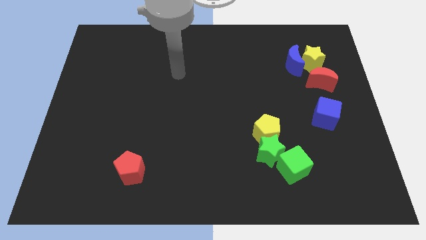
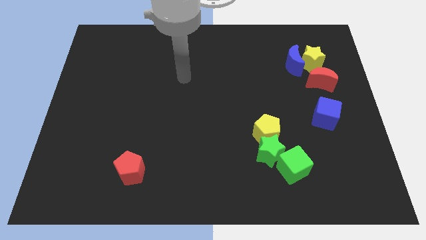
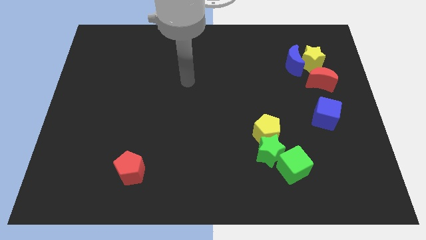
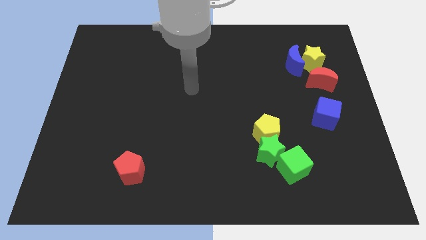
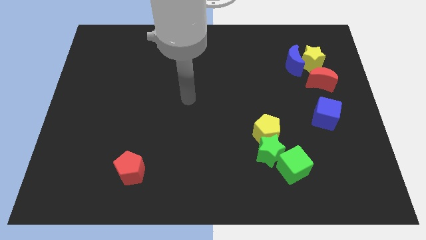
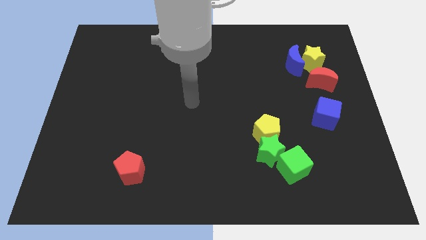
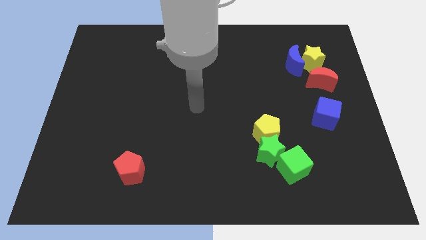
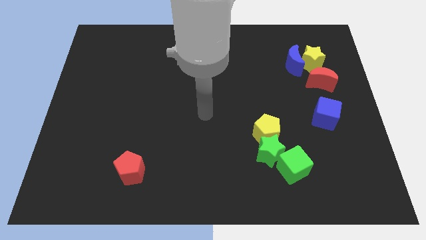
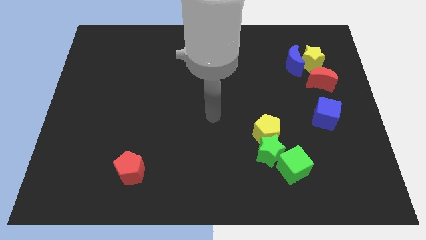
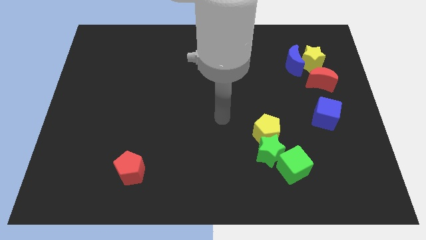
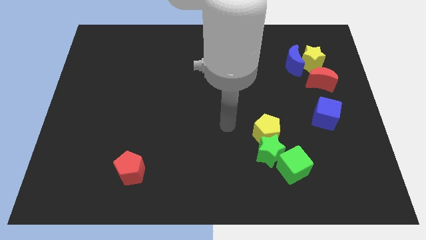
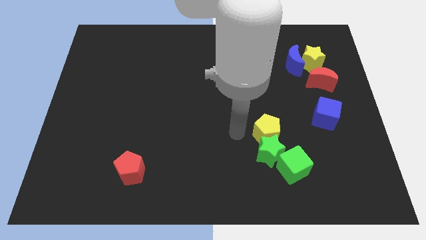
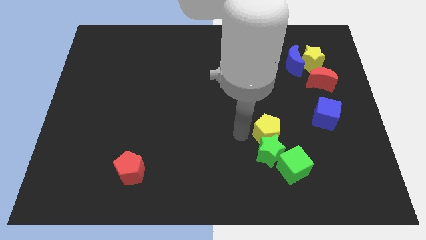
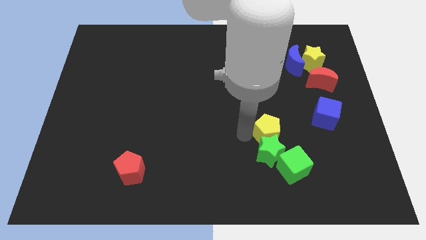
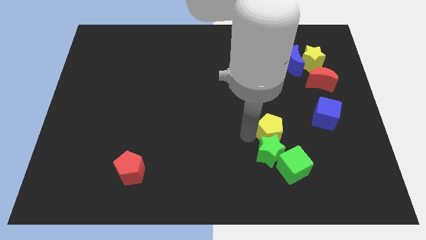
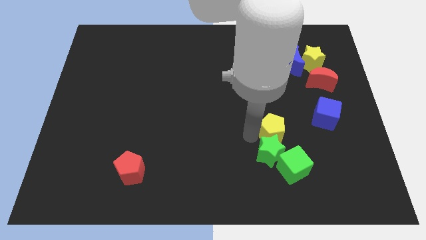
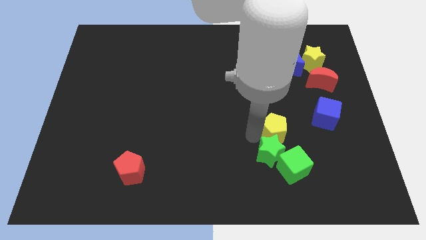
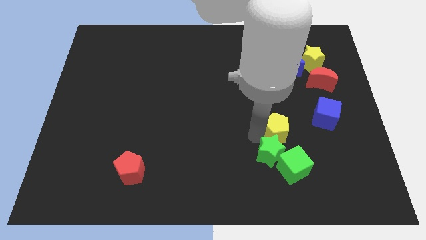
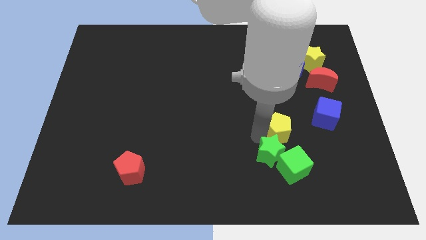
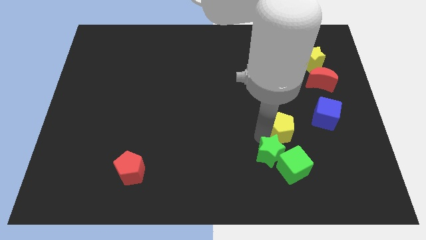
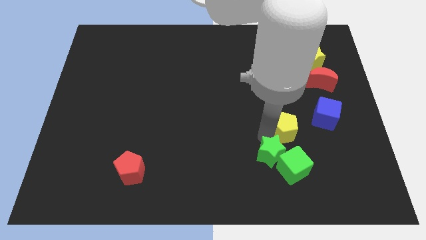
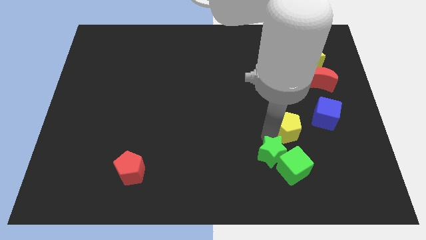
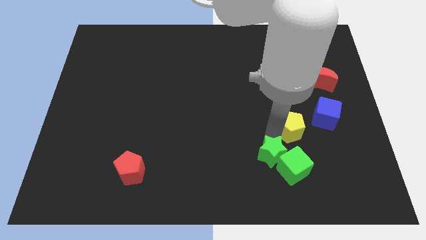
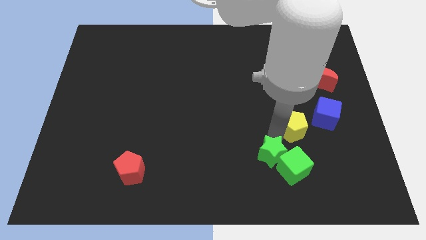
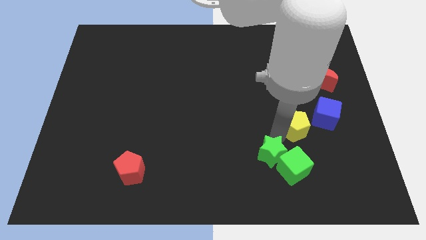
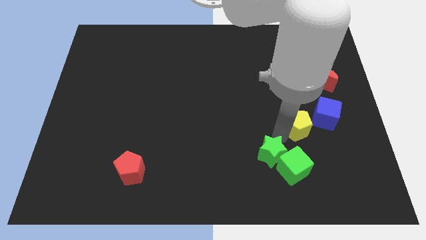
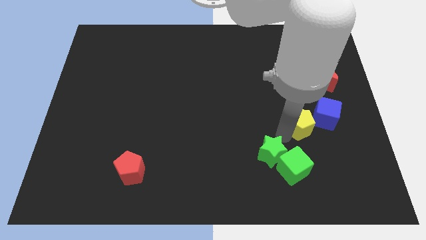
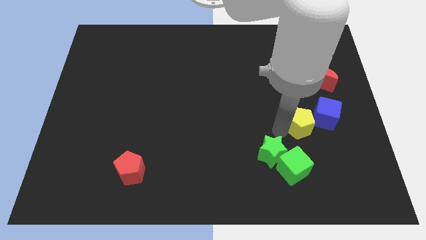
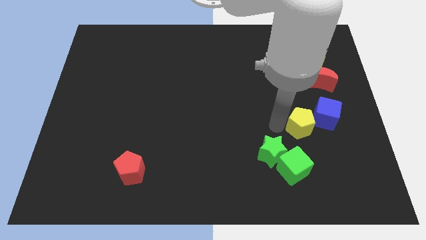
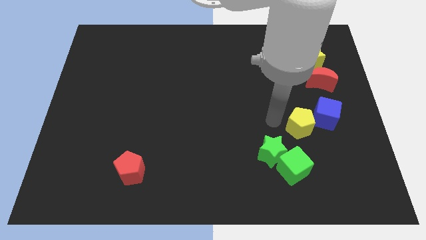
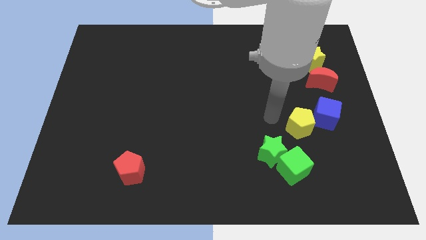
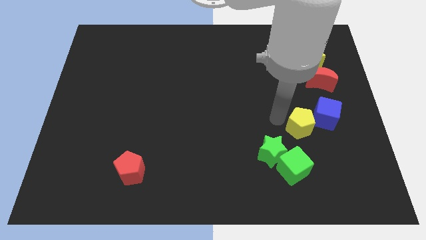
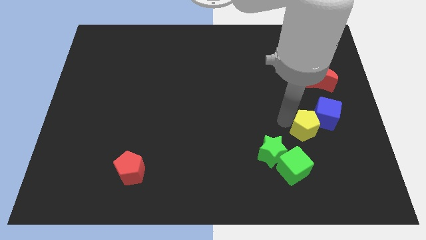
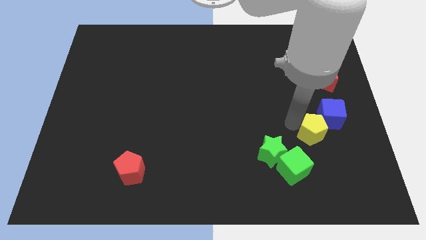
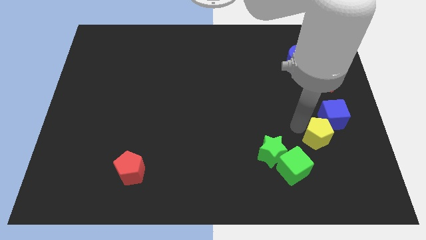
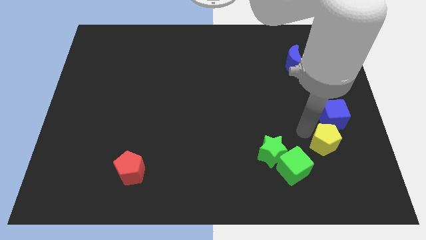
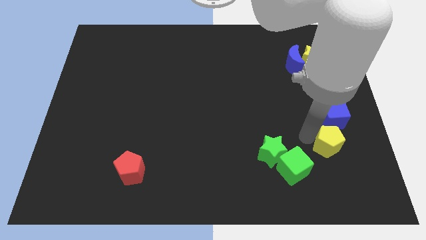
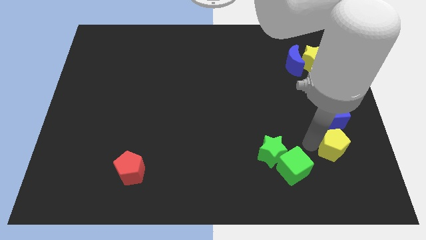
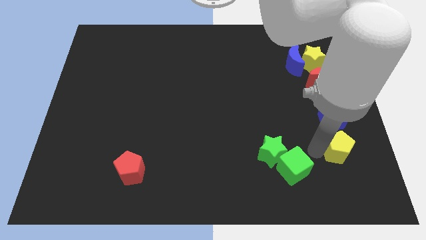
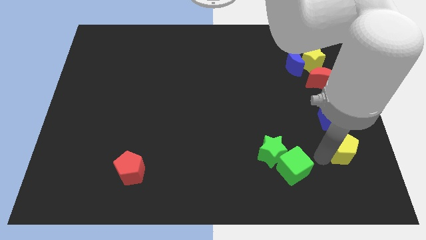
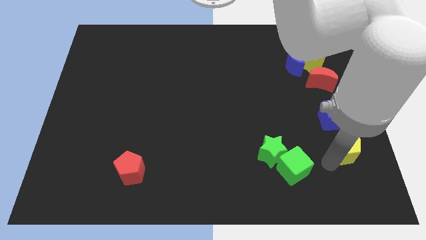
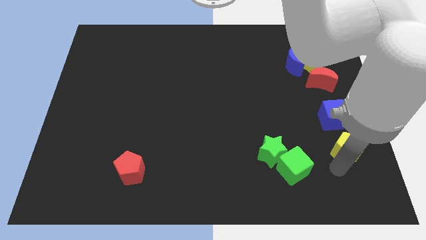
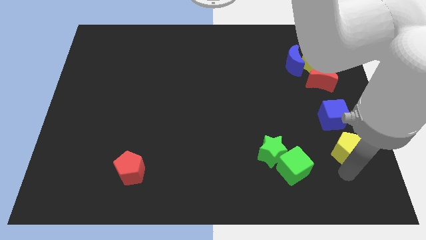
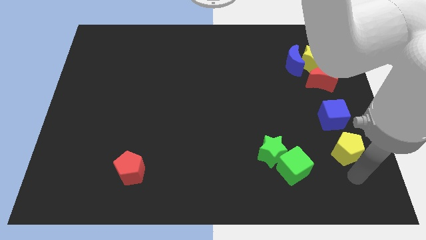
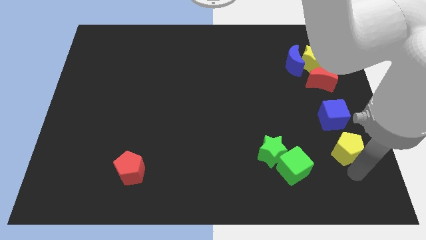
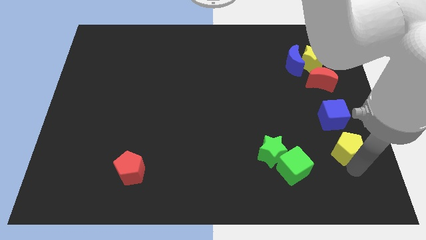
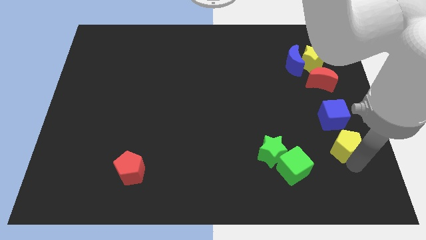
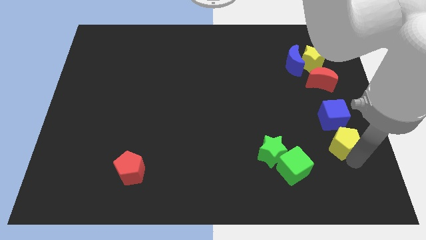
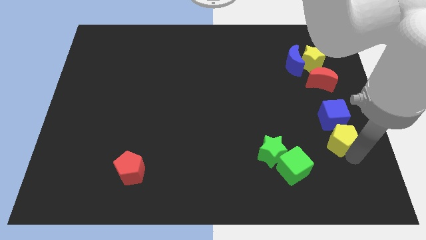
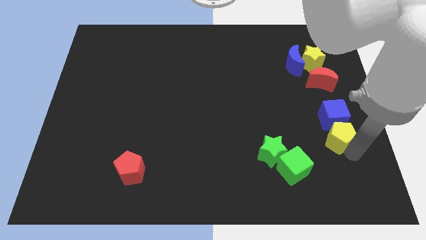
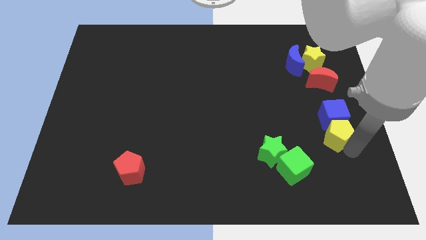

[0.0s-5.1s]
put the yellow pentagon to the bottom side of the red moon

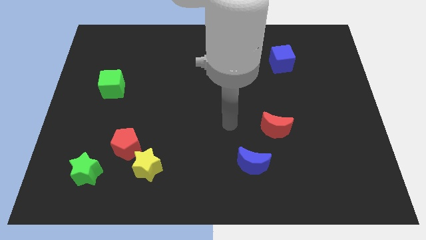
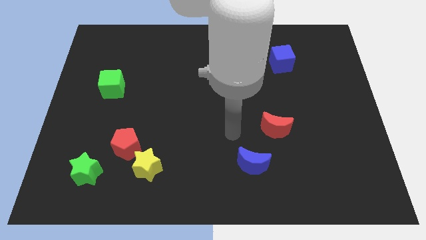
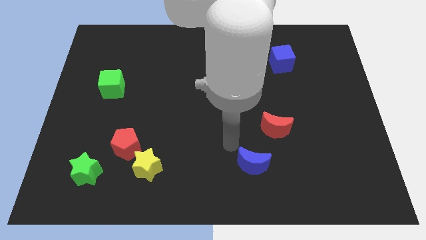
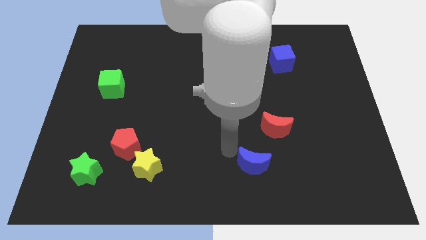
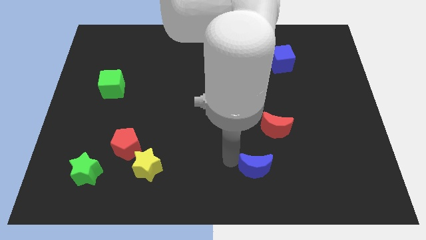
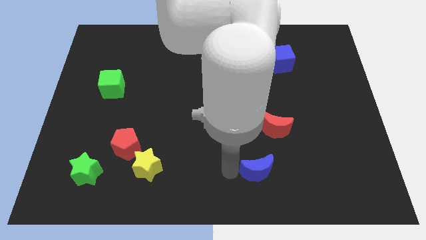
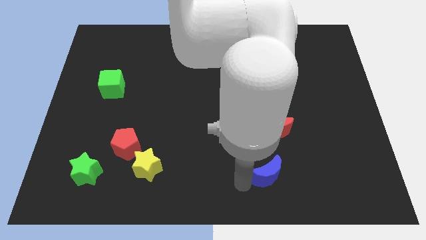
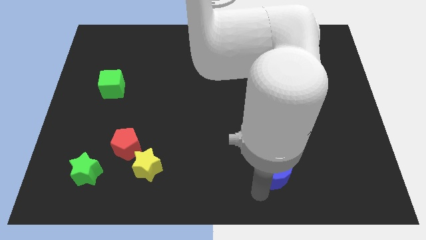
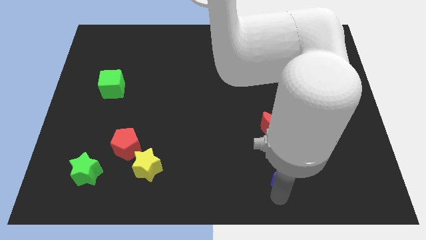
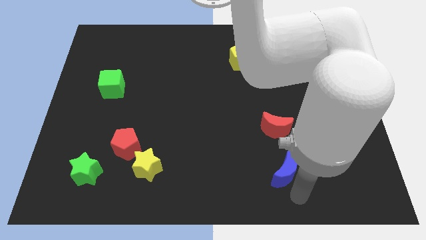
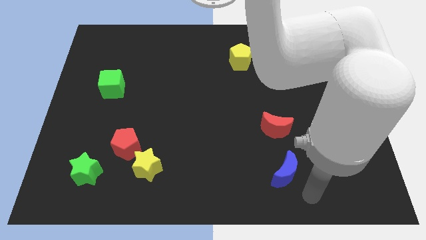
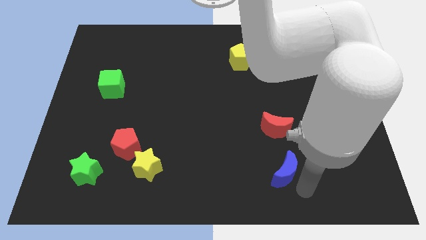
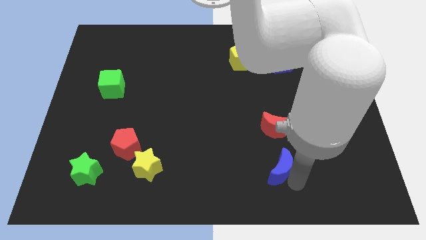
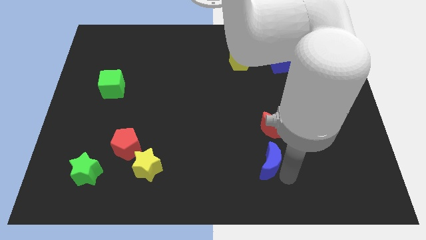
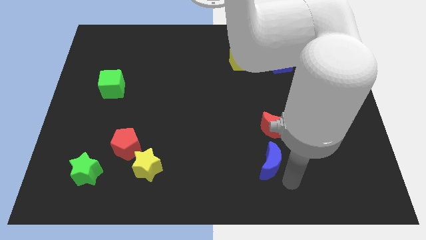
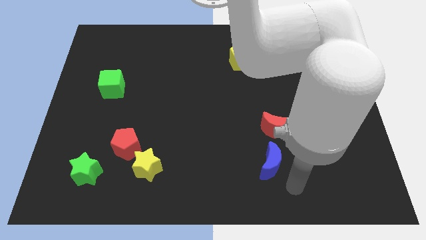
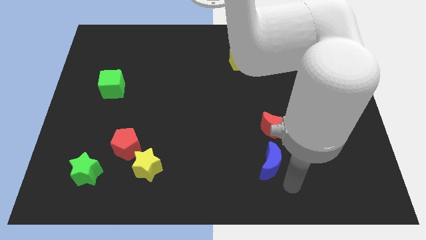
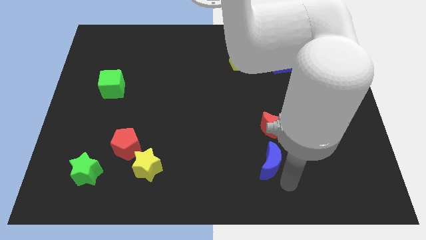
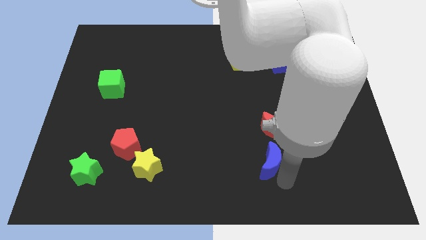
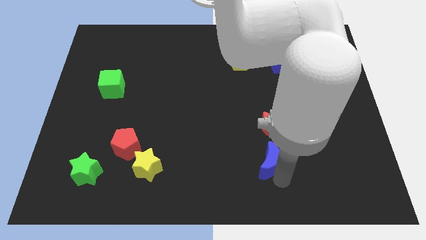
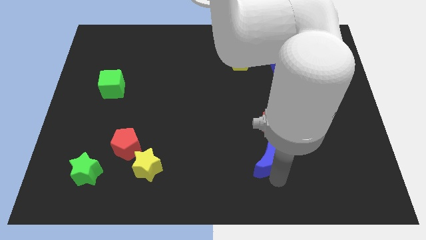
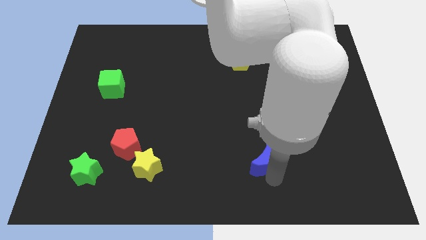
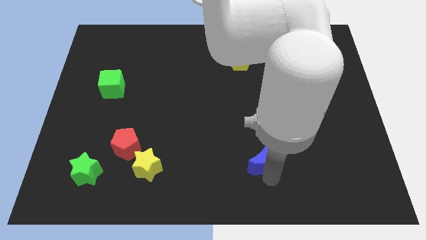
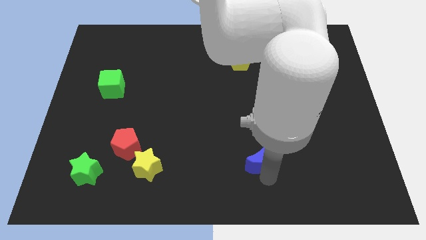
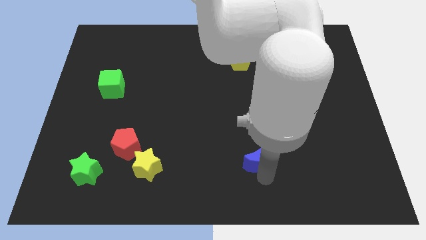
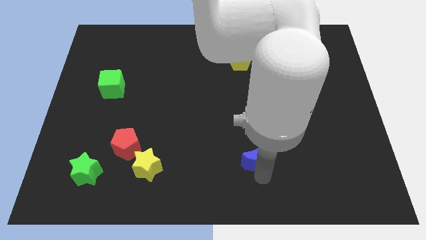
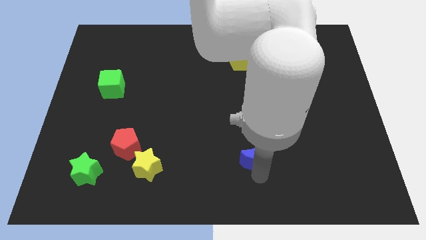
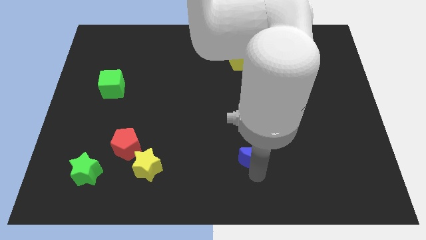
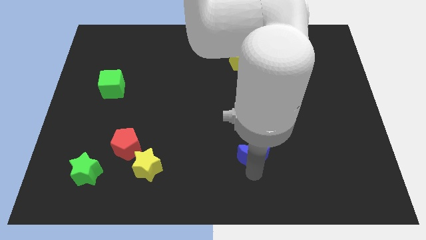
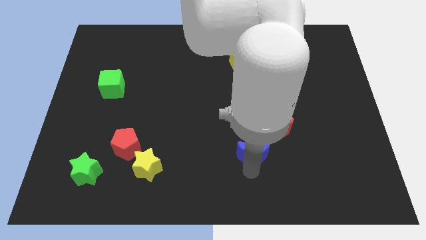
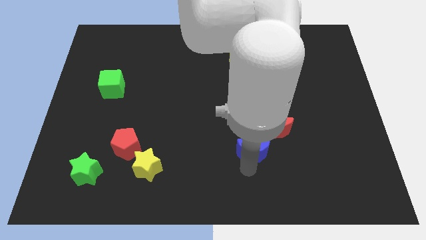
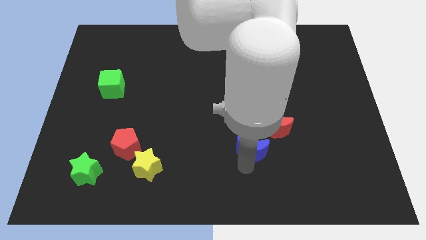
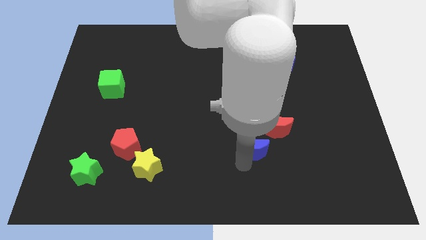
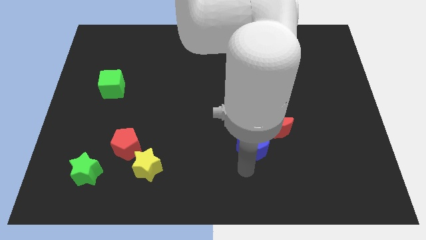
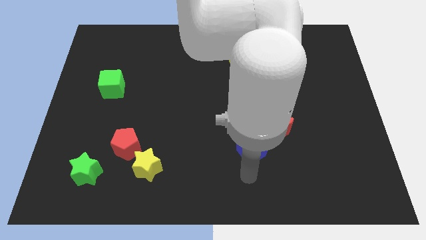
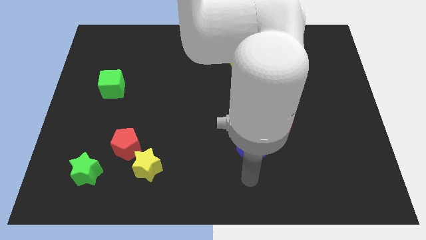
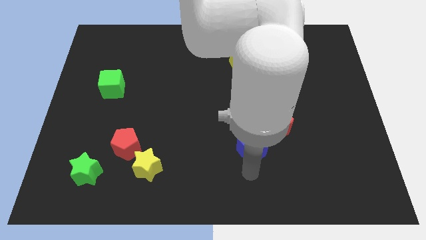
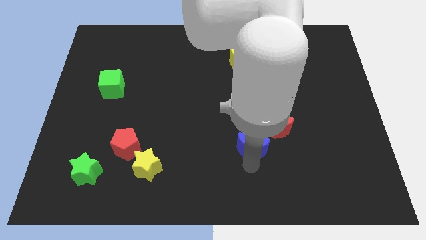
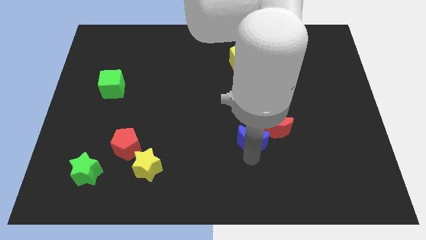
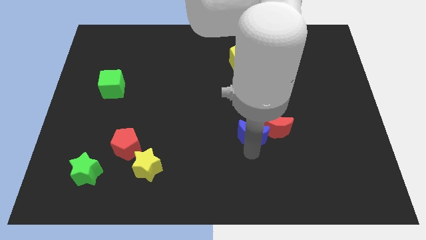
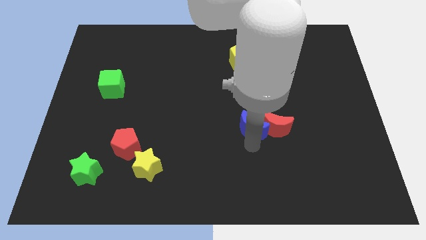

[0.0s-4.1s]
slide the blue moon to the top left of the red moon
